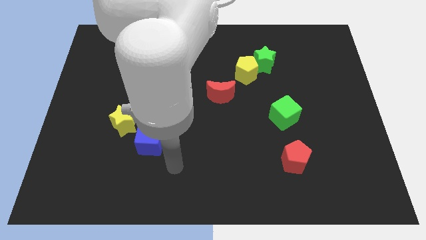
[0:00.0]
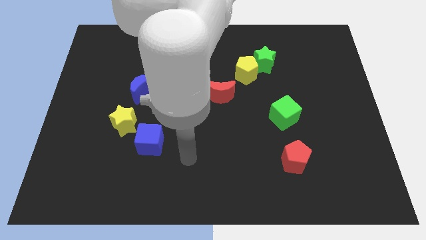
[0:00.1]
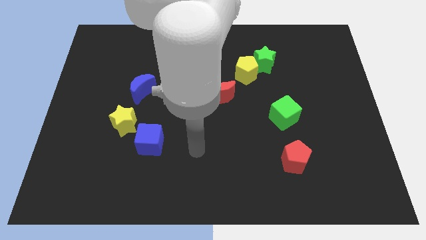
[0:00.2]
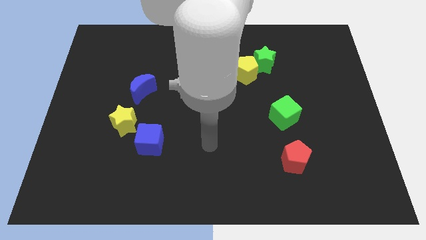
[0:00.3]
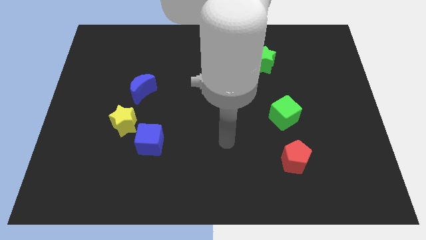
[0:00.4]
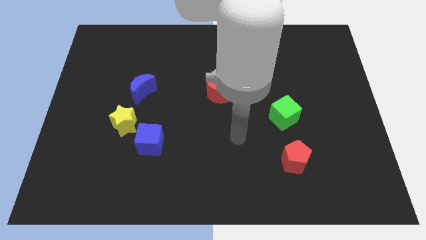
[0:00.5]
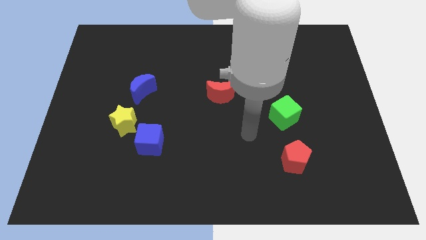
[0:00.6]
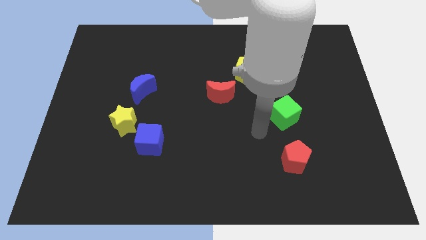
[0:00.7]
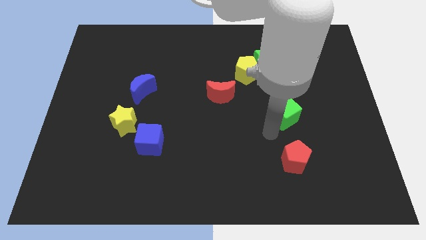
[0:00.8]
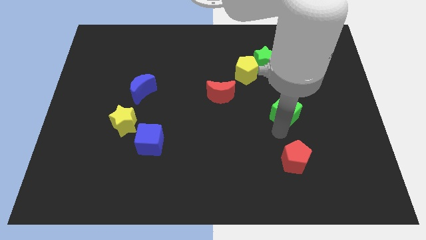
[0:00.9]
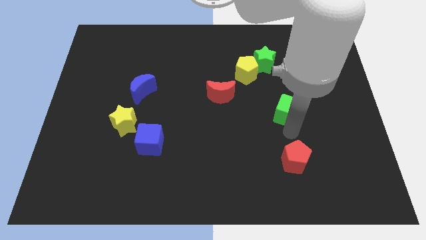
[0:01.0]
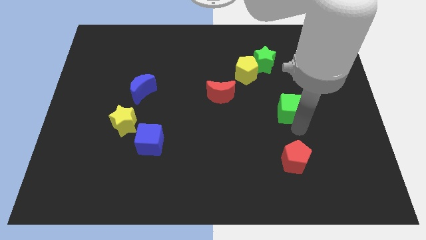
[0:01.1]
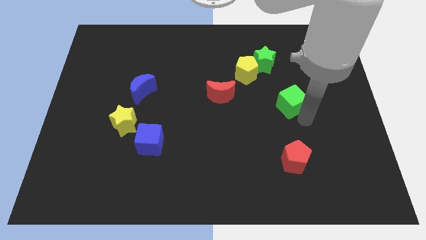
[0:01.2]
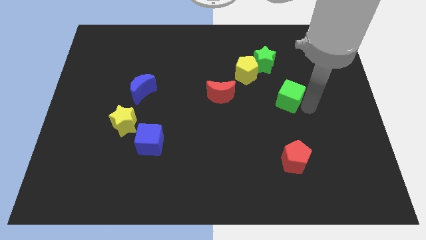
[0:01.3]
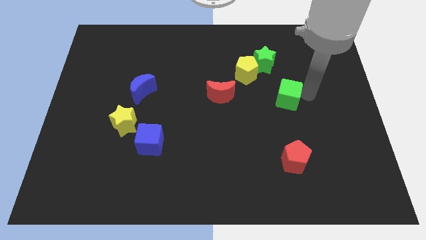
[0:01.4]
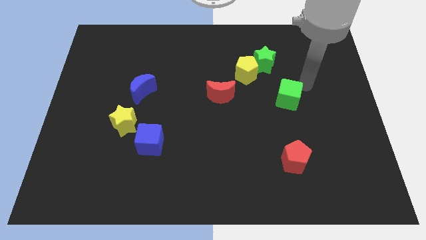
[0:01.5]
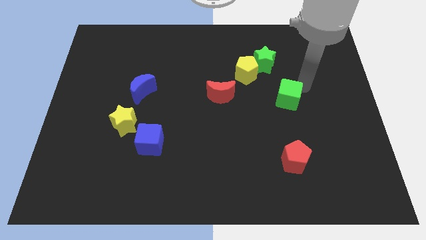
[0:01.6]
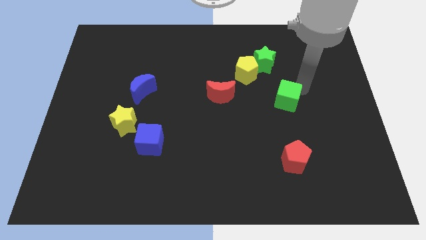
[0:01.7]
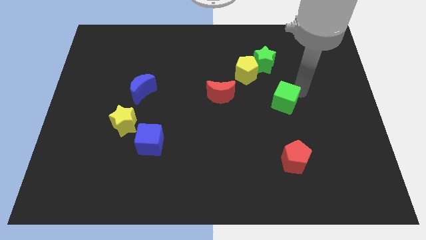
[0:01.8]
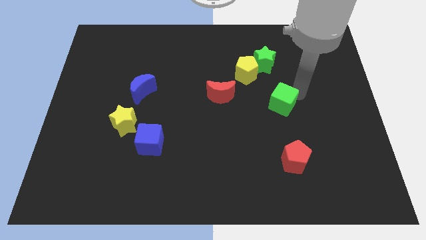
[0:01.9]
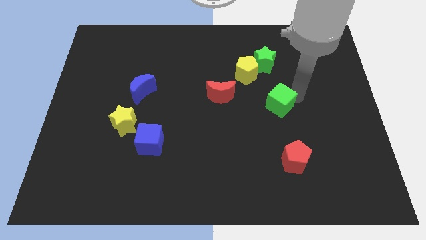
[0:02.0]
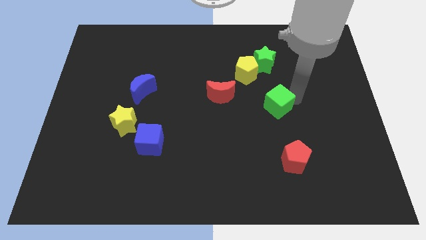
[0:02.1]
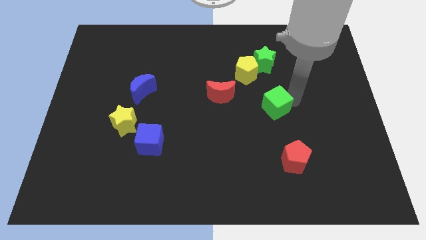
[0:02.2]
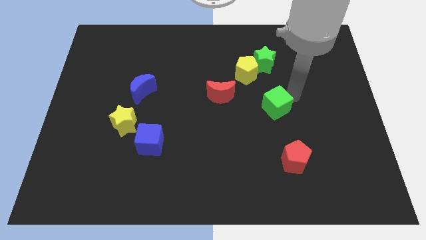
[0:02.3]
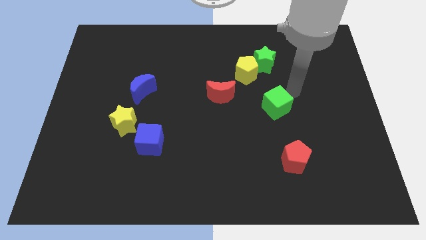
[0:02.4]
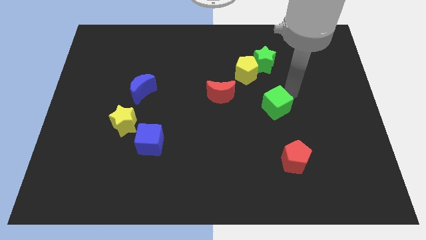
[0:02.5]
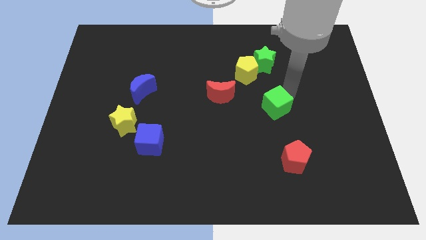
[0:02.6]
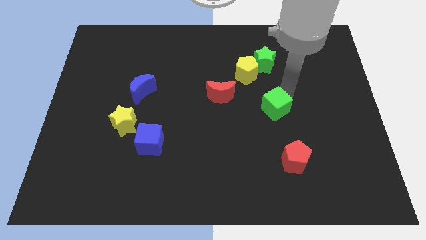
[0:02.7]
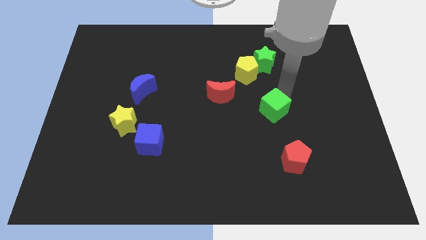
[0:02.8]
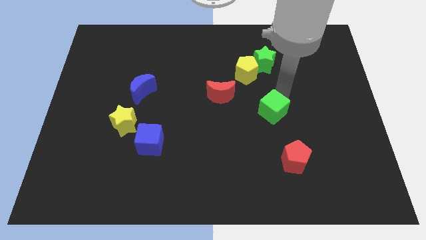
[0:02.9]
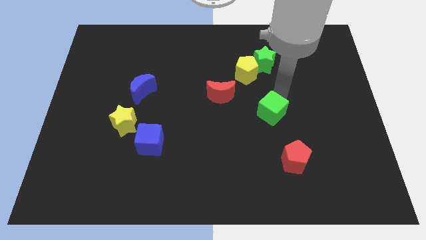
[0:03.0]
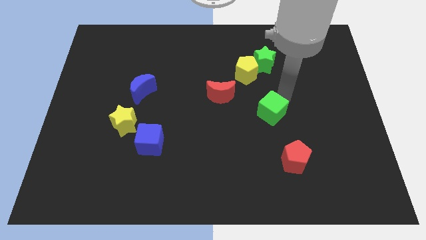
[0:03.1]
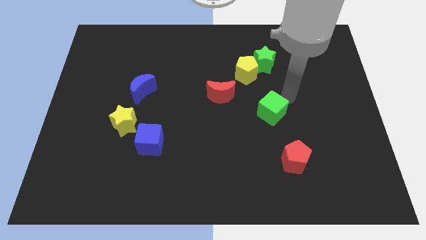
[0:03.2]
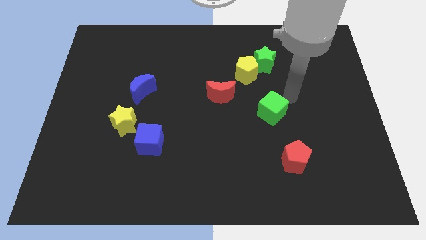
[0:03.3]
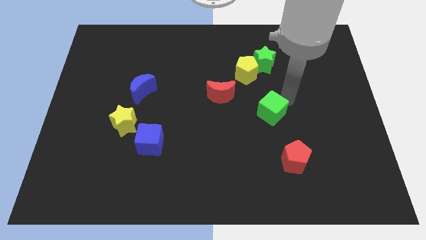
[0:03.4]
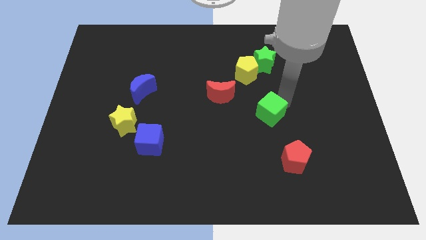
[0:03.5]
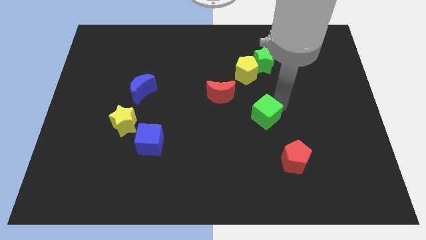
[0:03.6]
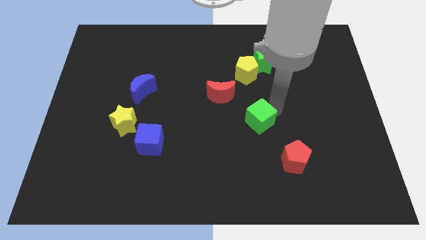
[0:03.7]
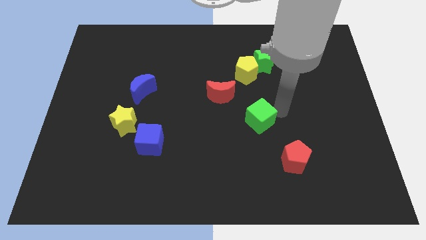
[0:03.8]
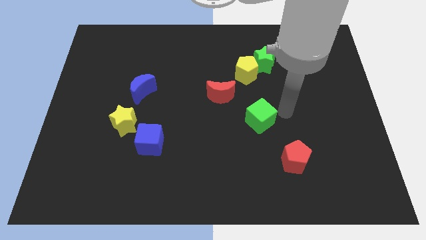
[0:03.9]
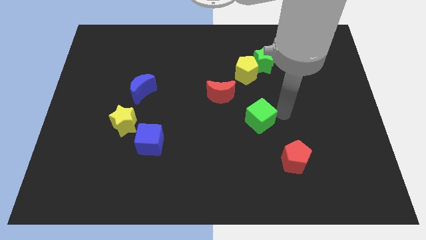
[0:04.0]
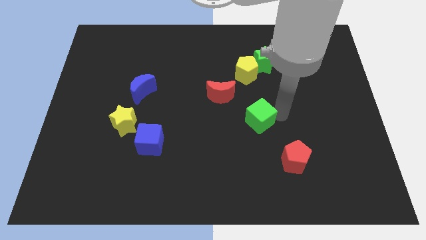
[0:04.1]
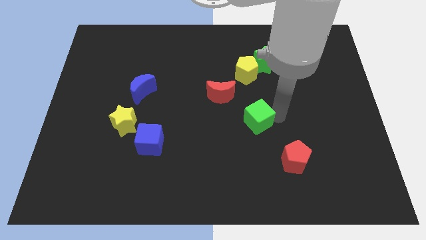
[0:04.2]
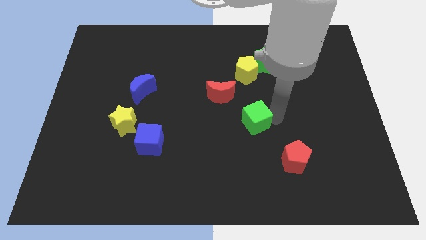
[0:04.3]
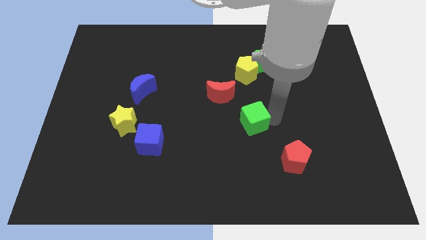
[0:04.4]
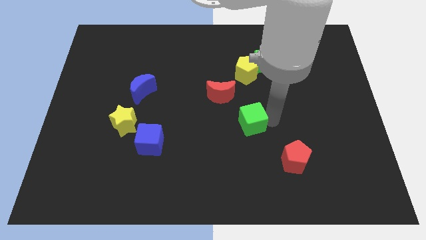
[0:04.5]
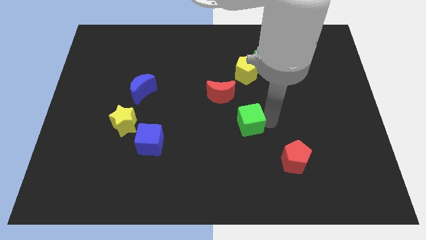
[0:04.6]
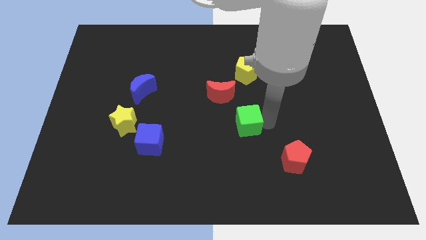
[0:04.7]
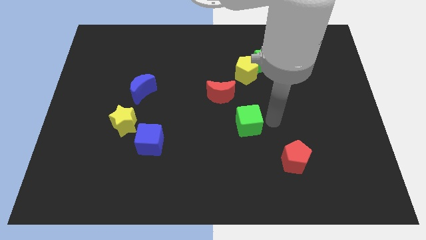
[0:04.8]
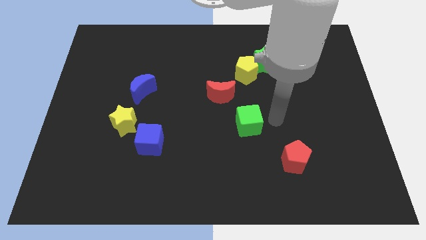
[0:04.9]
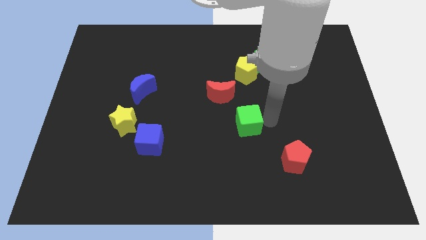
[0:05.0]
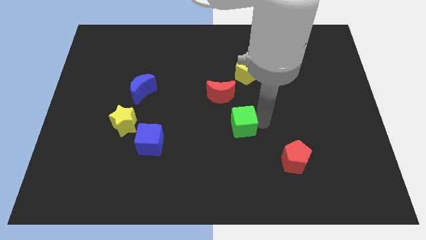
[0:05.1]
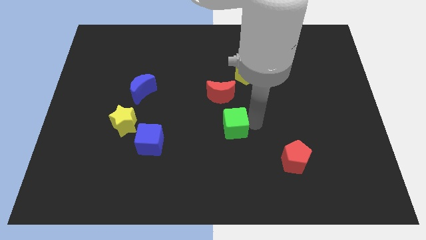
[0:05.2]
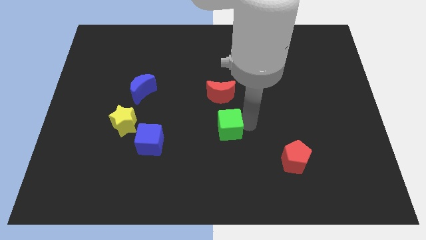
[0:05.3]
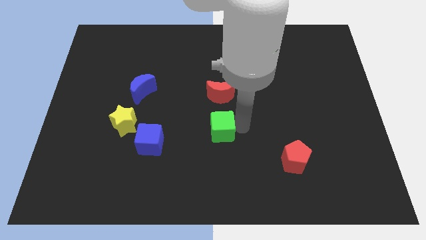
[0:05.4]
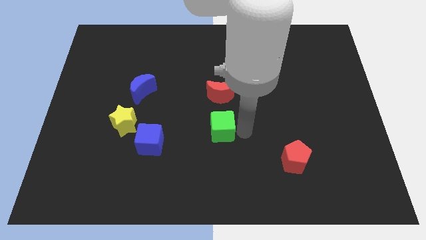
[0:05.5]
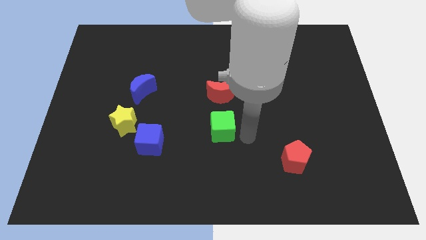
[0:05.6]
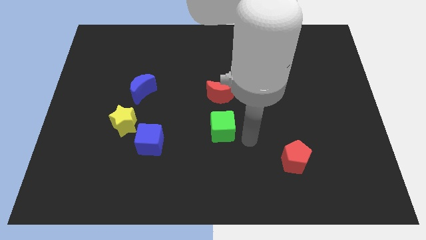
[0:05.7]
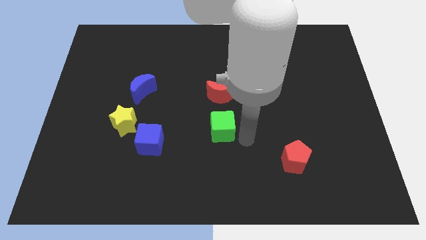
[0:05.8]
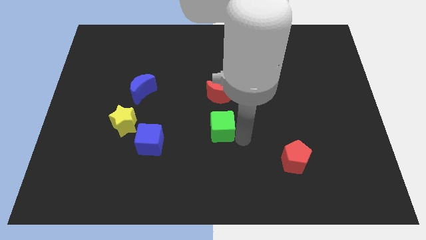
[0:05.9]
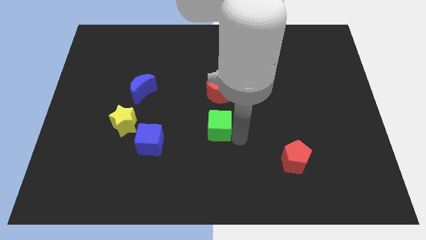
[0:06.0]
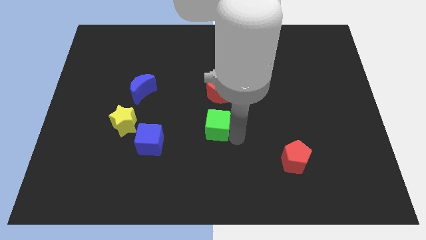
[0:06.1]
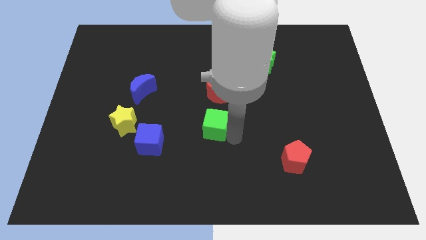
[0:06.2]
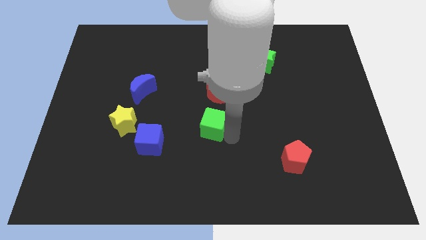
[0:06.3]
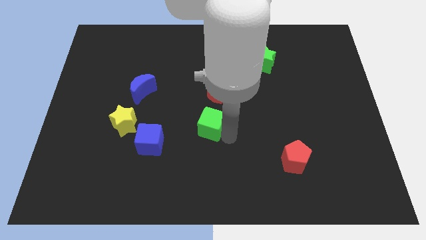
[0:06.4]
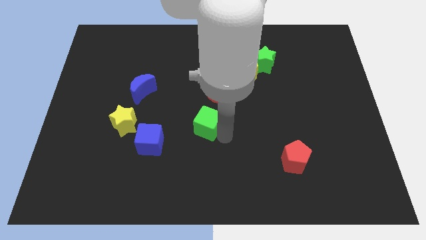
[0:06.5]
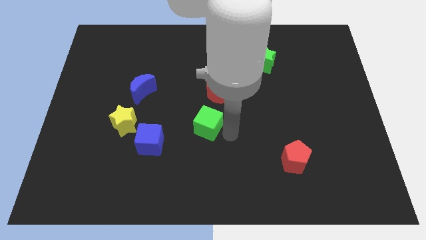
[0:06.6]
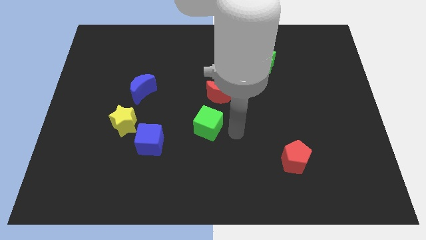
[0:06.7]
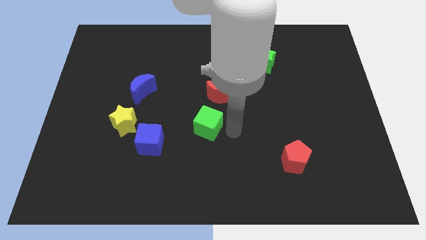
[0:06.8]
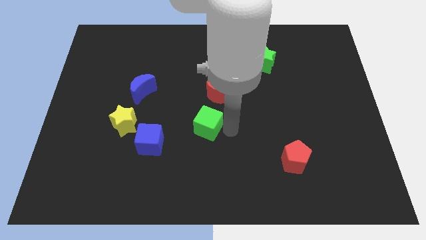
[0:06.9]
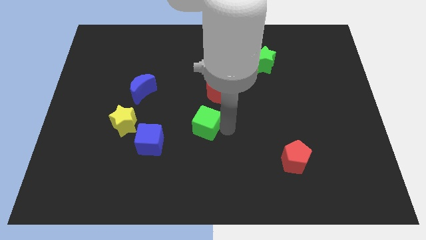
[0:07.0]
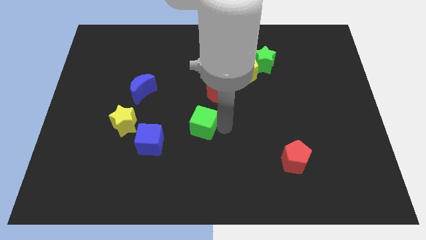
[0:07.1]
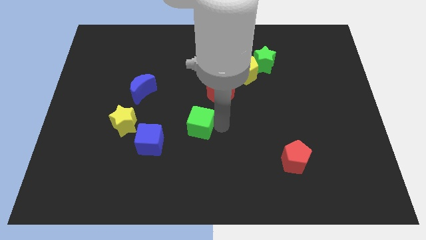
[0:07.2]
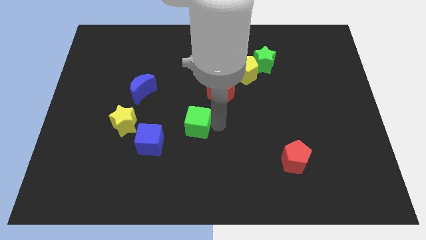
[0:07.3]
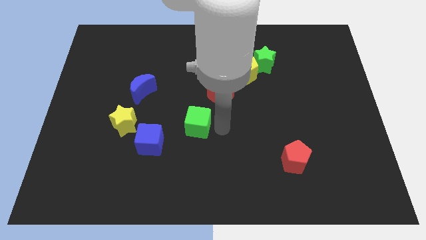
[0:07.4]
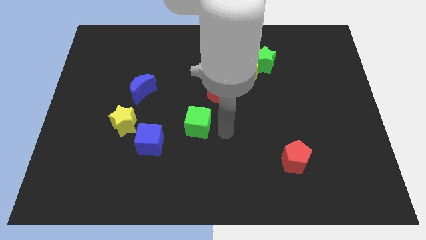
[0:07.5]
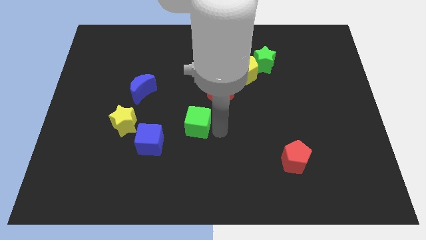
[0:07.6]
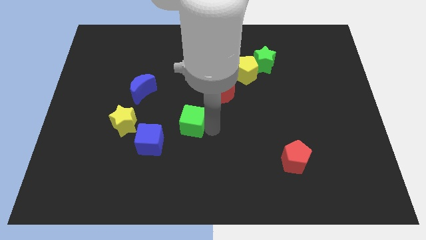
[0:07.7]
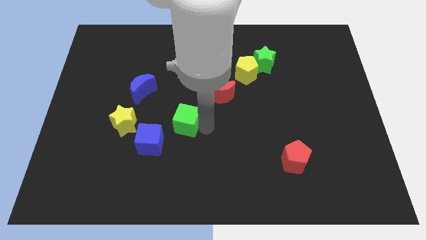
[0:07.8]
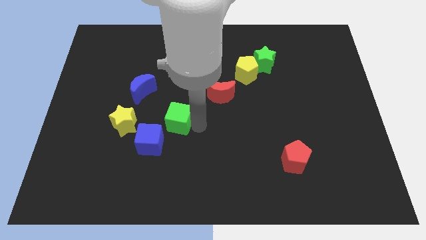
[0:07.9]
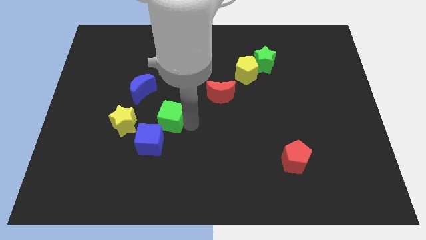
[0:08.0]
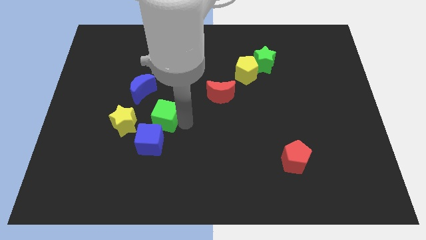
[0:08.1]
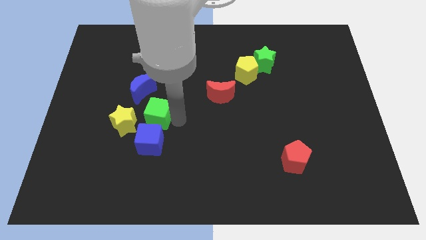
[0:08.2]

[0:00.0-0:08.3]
put the green cube below the blue moon
